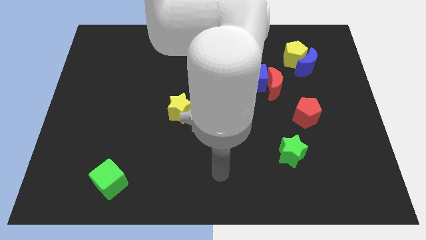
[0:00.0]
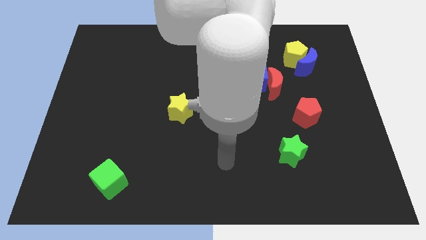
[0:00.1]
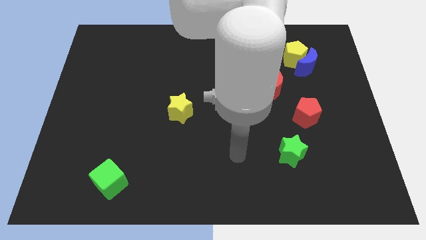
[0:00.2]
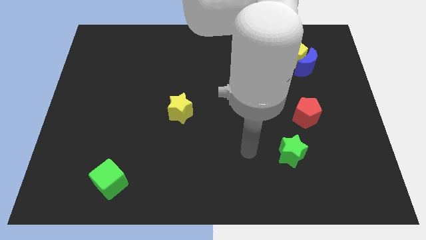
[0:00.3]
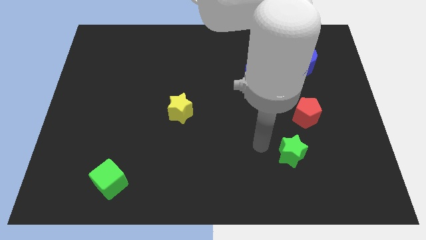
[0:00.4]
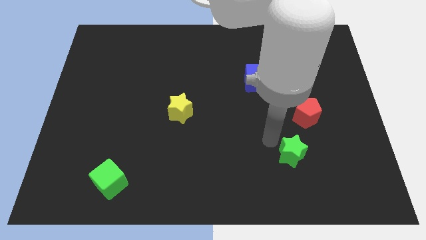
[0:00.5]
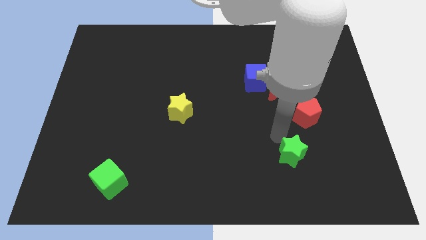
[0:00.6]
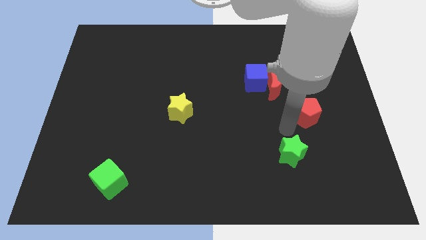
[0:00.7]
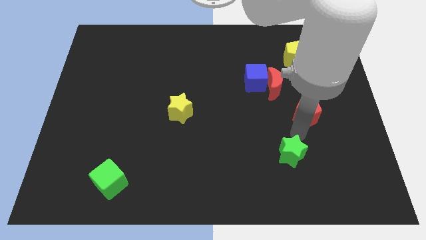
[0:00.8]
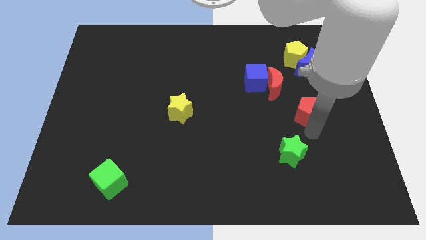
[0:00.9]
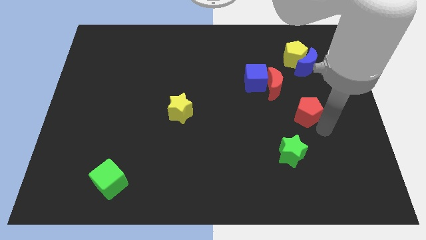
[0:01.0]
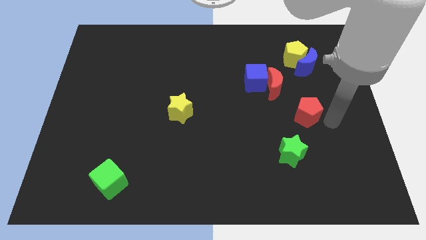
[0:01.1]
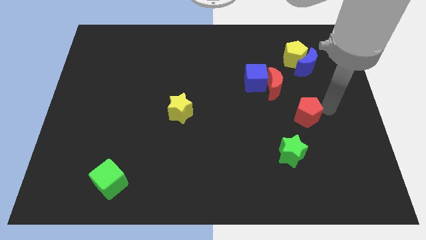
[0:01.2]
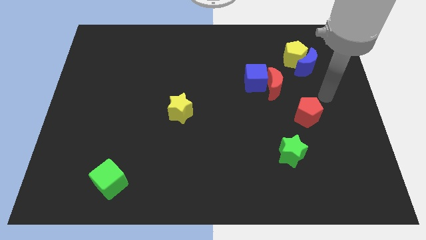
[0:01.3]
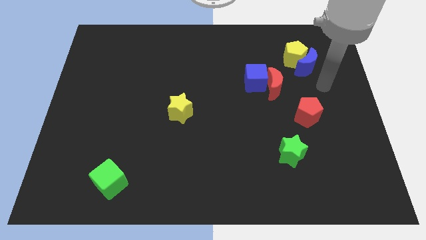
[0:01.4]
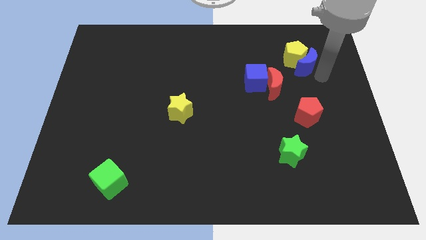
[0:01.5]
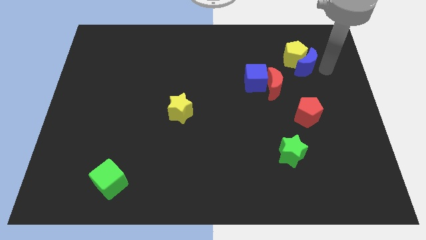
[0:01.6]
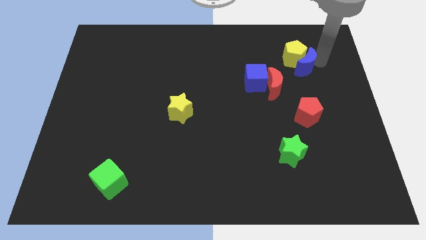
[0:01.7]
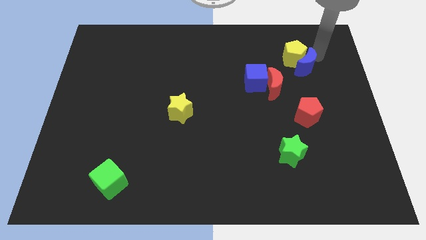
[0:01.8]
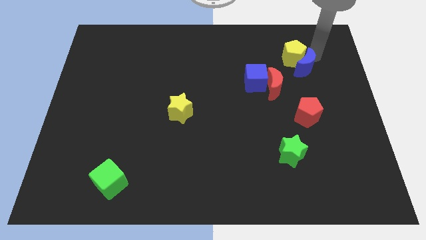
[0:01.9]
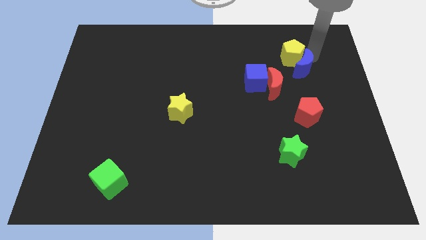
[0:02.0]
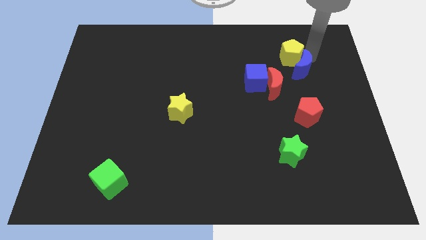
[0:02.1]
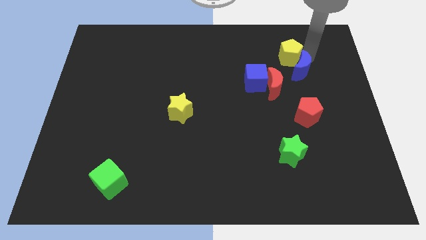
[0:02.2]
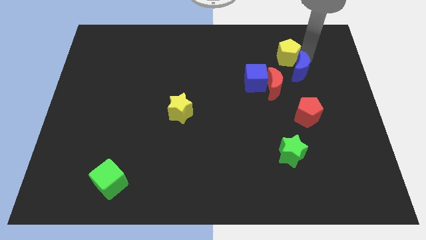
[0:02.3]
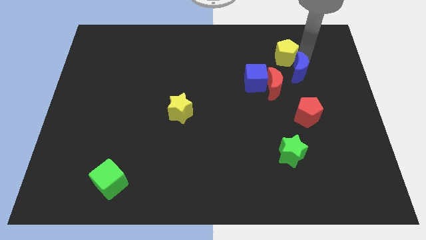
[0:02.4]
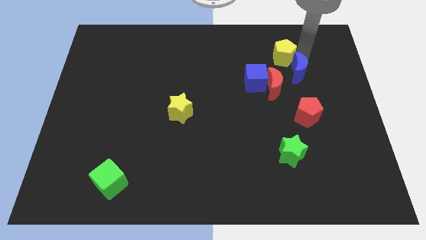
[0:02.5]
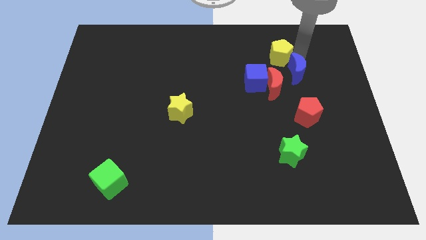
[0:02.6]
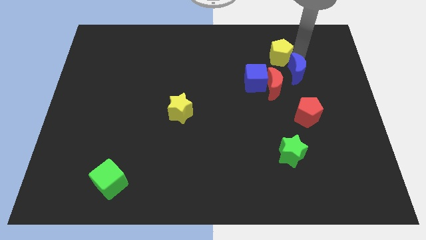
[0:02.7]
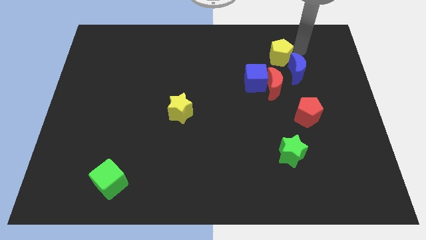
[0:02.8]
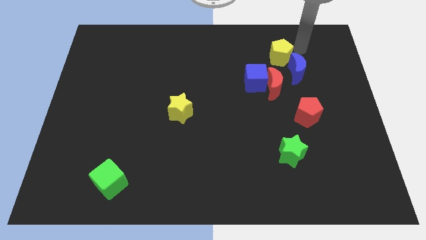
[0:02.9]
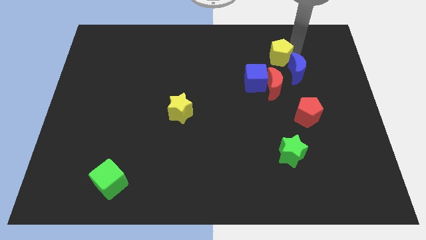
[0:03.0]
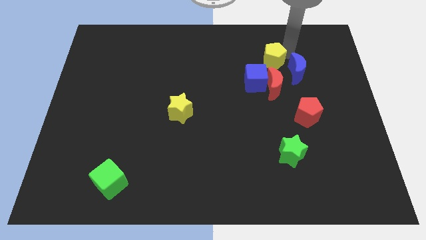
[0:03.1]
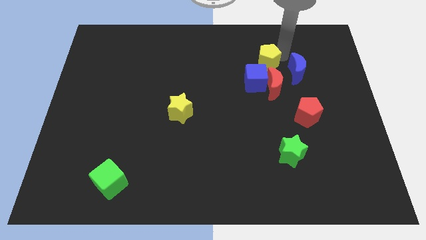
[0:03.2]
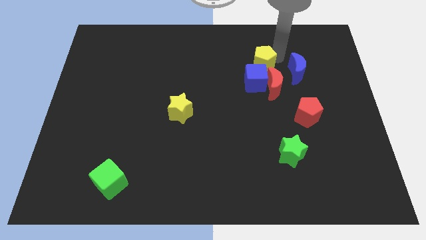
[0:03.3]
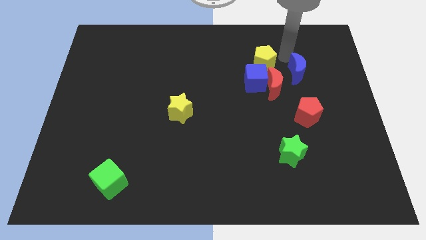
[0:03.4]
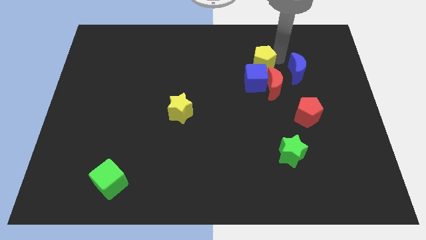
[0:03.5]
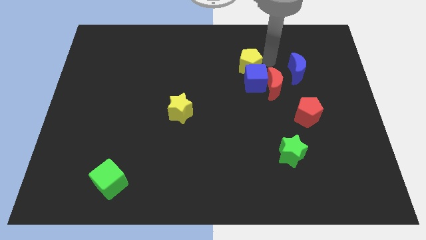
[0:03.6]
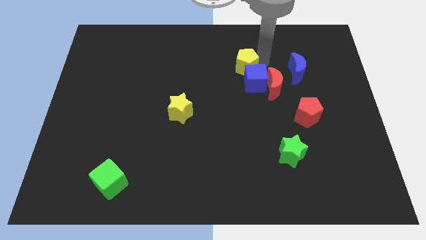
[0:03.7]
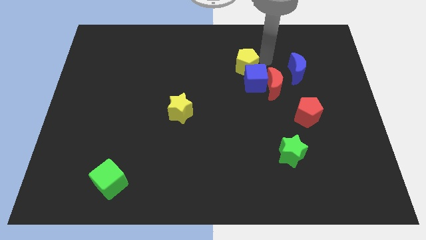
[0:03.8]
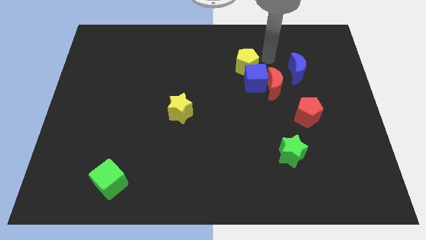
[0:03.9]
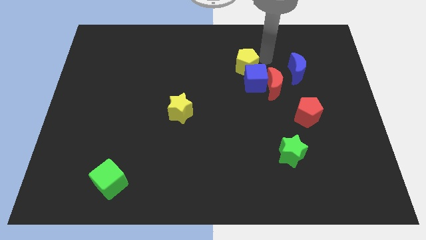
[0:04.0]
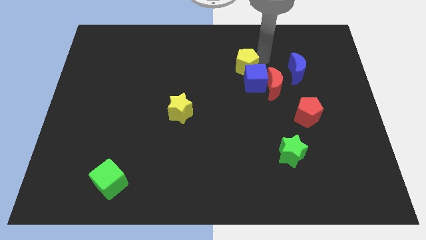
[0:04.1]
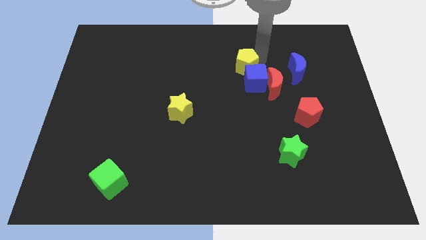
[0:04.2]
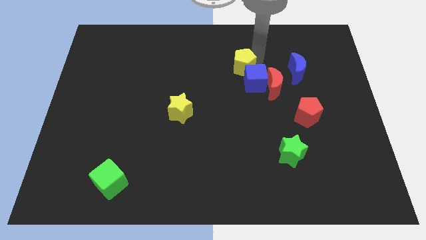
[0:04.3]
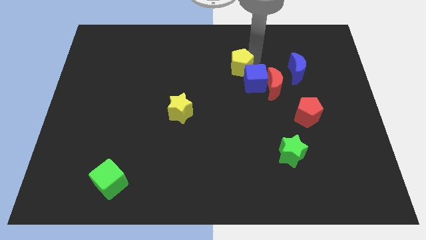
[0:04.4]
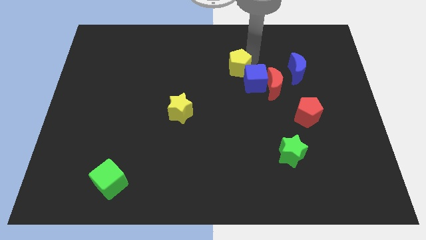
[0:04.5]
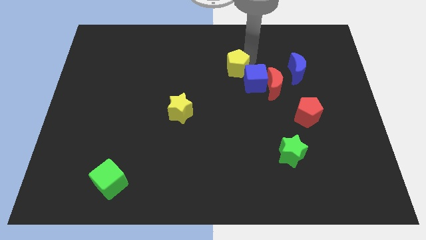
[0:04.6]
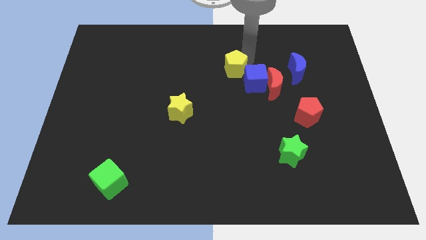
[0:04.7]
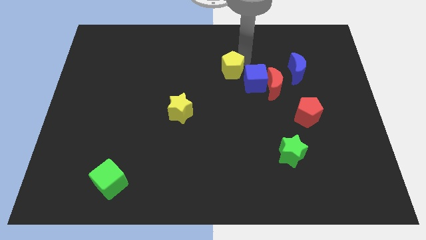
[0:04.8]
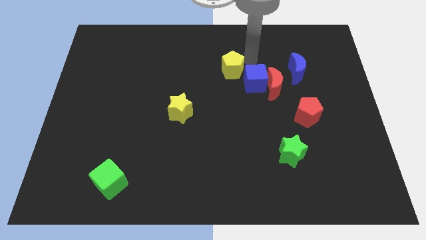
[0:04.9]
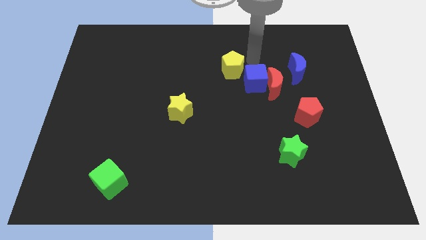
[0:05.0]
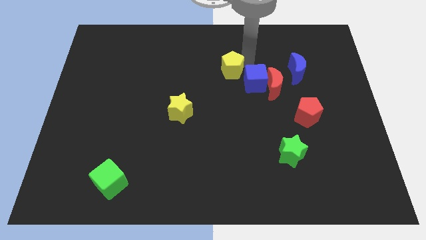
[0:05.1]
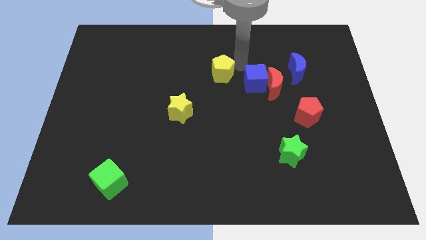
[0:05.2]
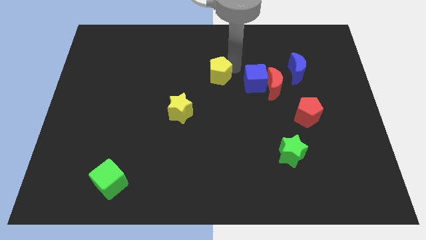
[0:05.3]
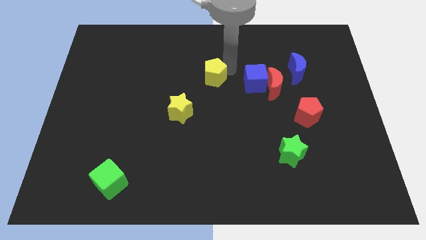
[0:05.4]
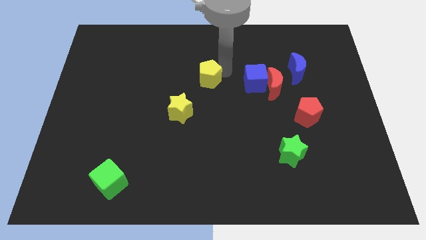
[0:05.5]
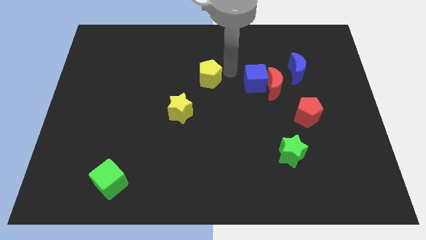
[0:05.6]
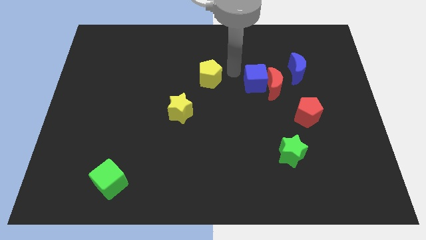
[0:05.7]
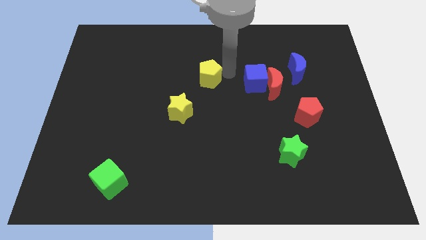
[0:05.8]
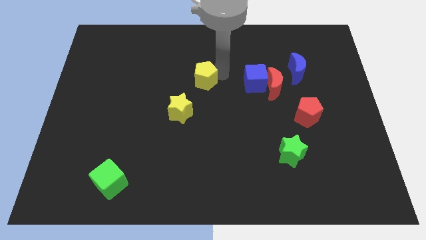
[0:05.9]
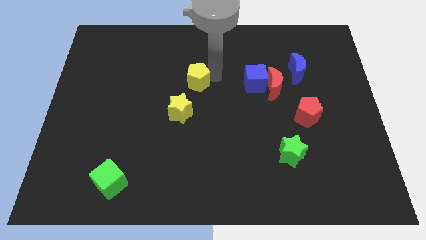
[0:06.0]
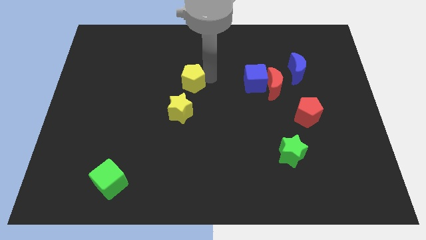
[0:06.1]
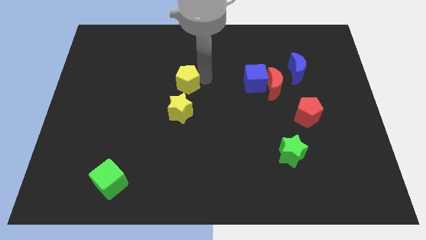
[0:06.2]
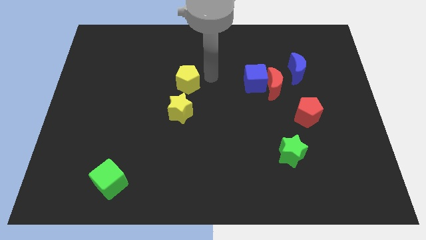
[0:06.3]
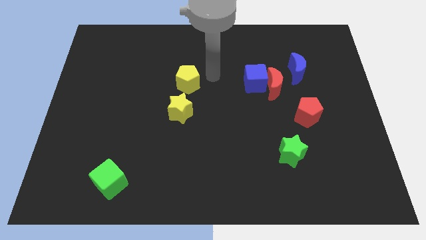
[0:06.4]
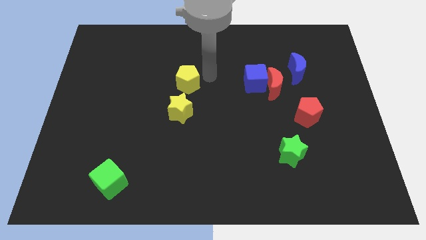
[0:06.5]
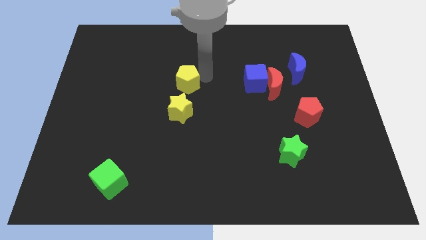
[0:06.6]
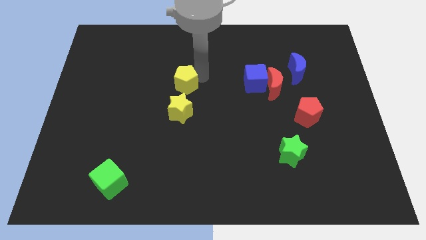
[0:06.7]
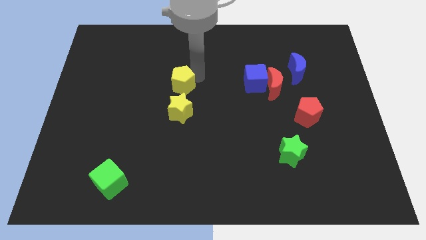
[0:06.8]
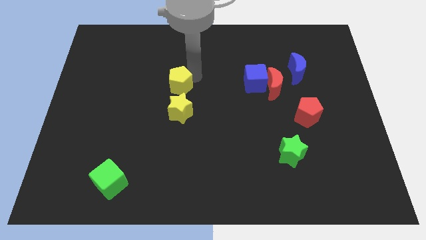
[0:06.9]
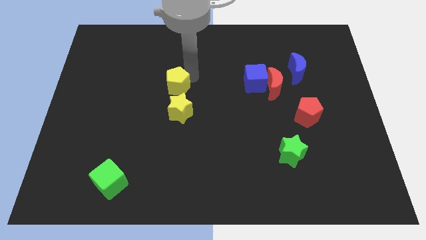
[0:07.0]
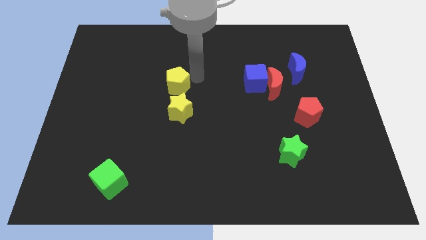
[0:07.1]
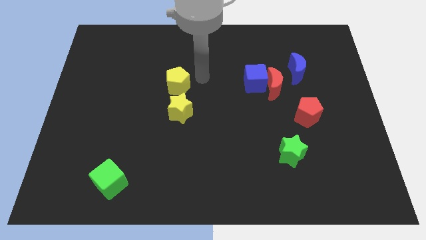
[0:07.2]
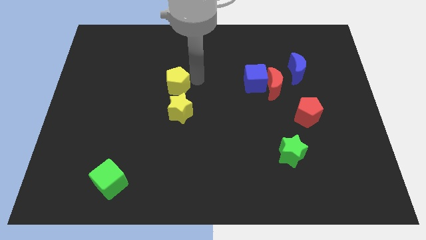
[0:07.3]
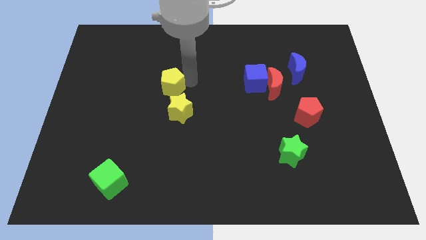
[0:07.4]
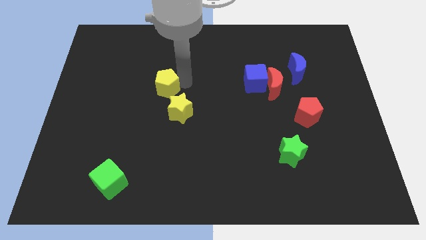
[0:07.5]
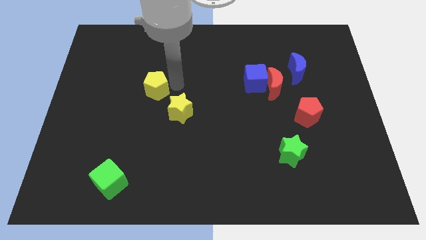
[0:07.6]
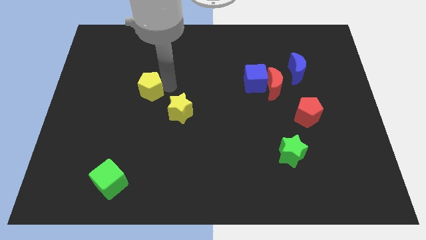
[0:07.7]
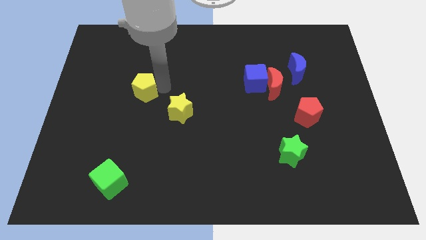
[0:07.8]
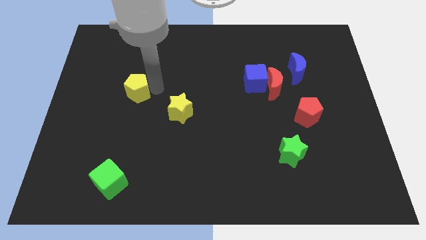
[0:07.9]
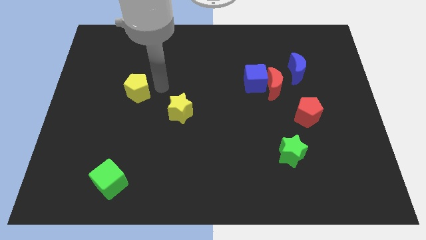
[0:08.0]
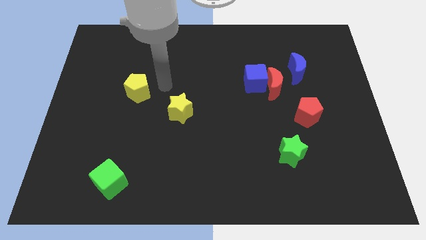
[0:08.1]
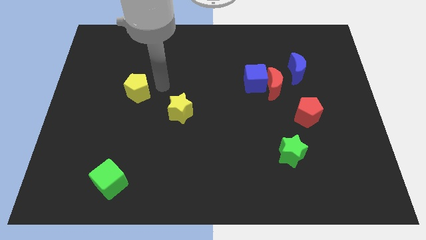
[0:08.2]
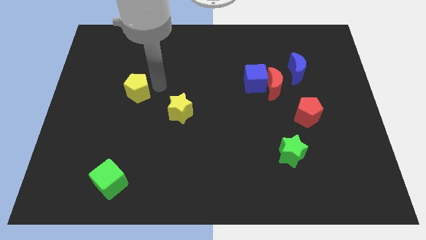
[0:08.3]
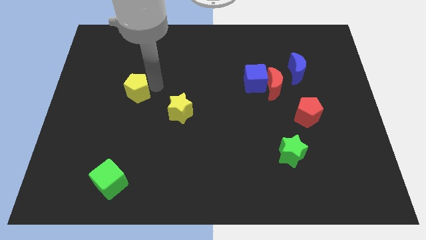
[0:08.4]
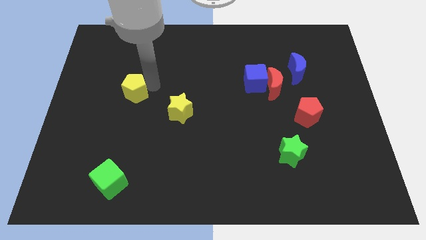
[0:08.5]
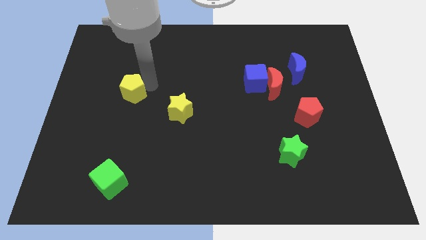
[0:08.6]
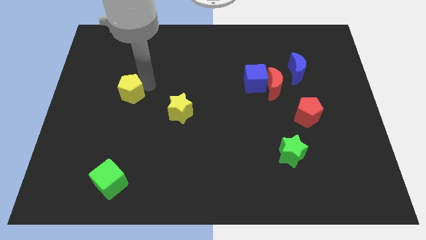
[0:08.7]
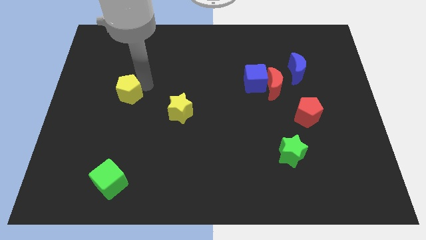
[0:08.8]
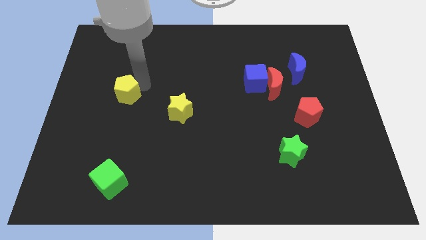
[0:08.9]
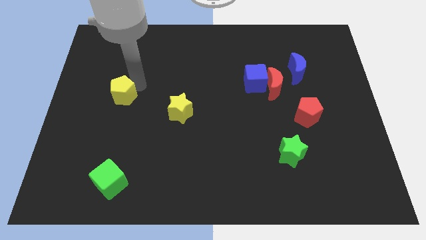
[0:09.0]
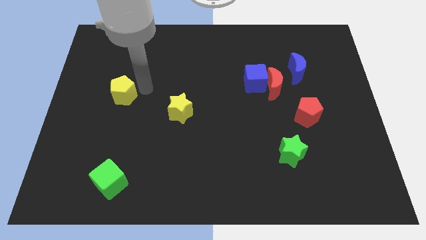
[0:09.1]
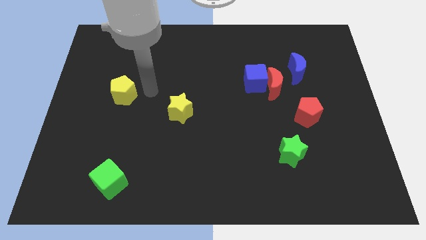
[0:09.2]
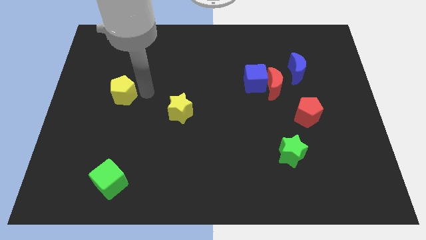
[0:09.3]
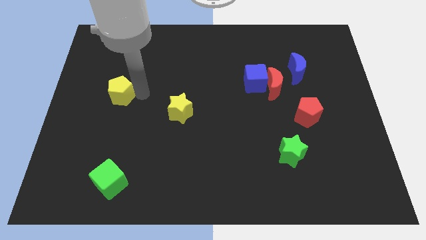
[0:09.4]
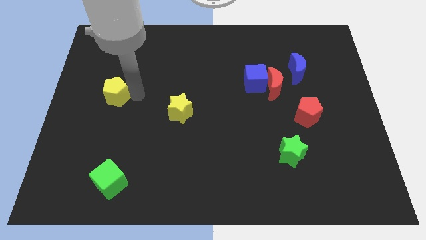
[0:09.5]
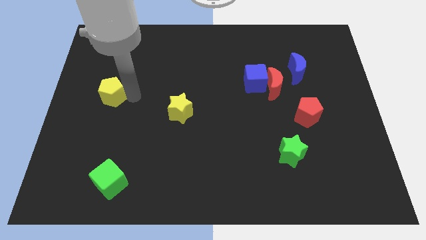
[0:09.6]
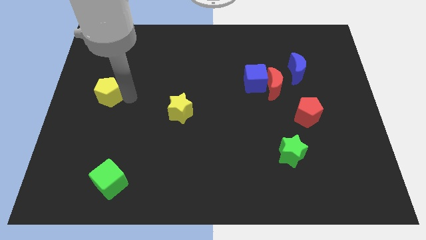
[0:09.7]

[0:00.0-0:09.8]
slide the yellow pentagon to the center left
